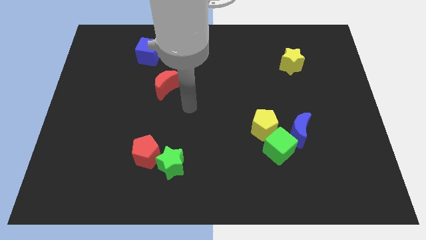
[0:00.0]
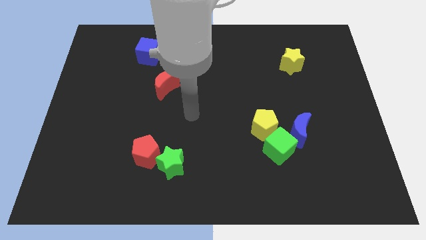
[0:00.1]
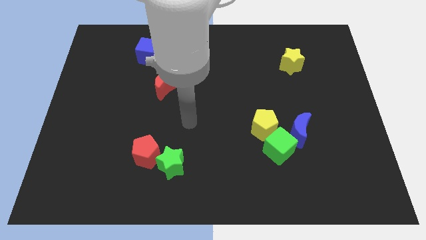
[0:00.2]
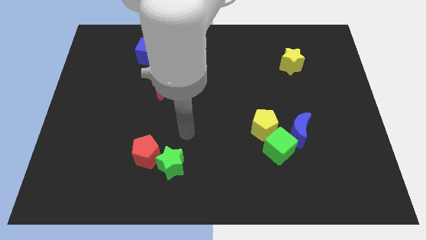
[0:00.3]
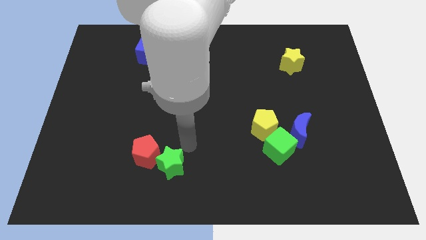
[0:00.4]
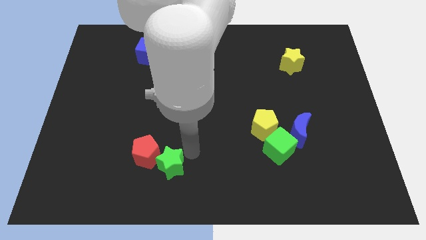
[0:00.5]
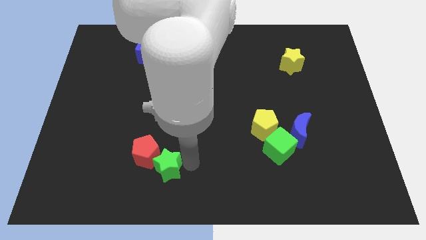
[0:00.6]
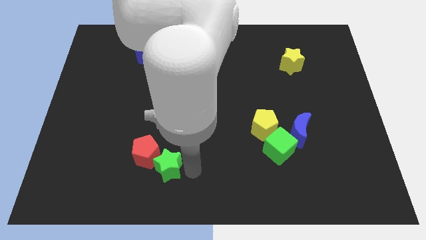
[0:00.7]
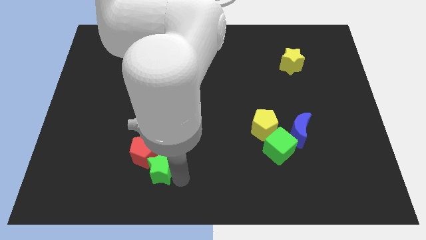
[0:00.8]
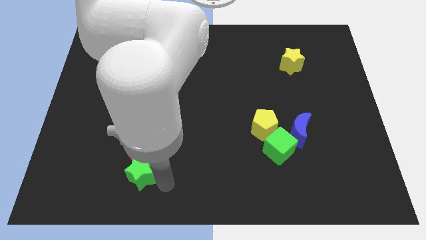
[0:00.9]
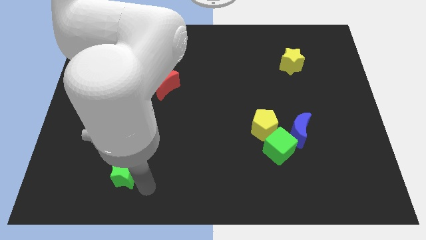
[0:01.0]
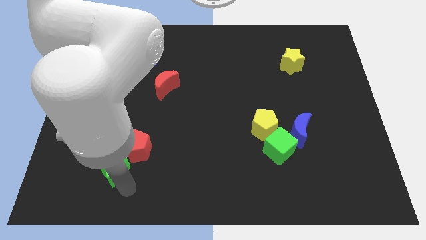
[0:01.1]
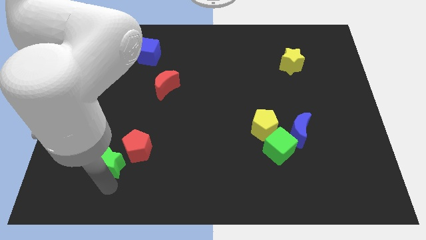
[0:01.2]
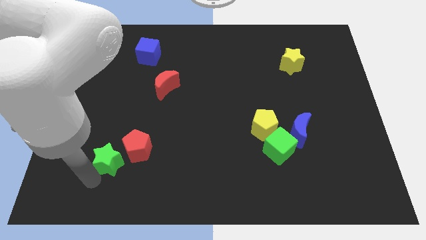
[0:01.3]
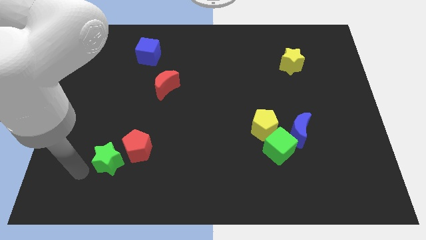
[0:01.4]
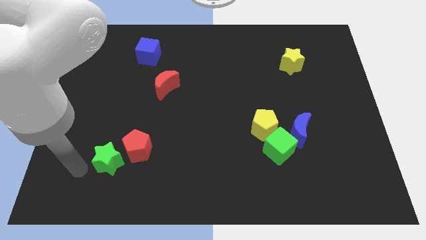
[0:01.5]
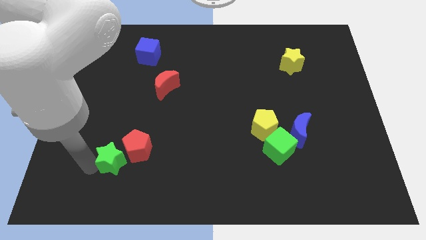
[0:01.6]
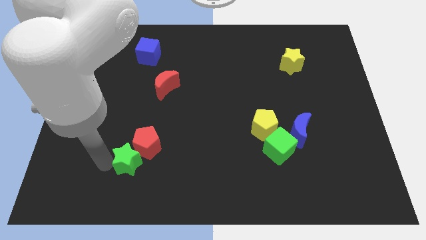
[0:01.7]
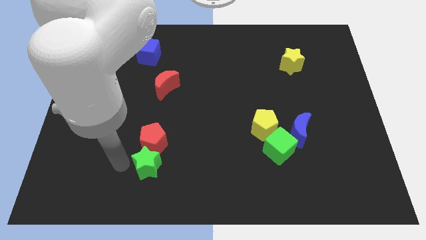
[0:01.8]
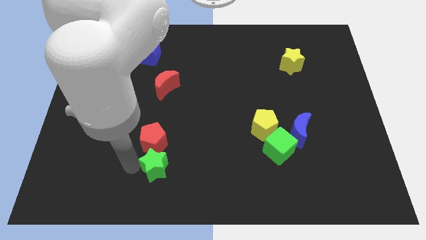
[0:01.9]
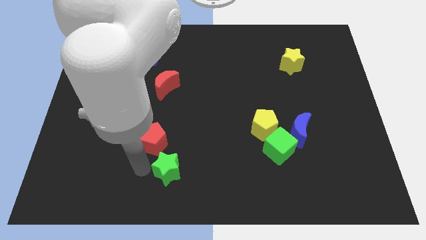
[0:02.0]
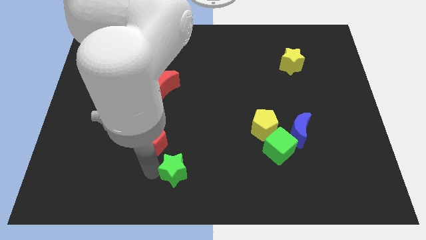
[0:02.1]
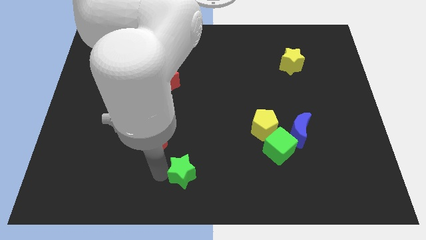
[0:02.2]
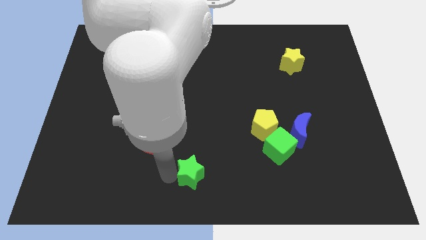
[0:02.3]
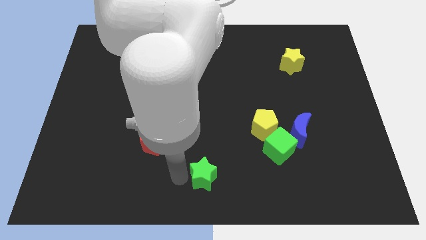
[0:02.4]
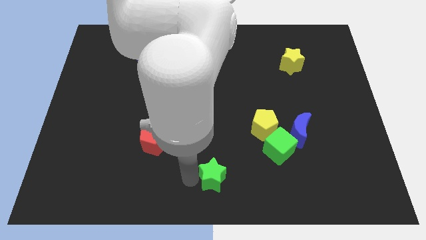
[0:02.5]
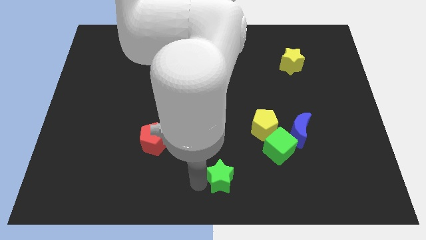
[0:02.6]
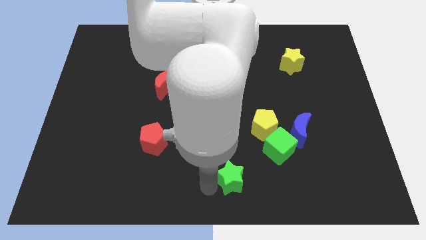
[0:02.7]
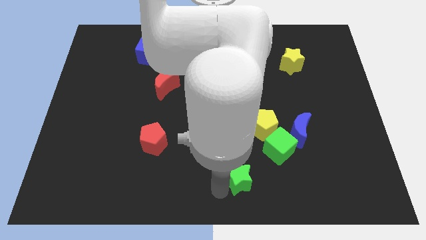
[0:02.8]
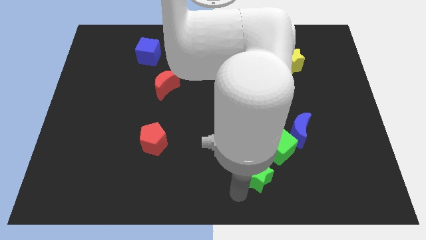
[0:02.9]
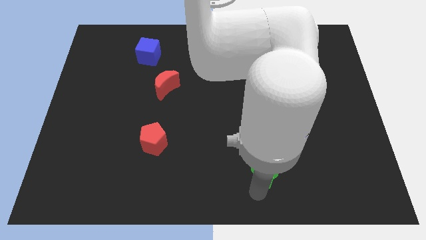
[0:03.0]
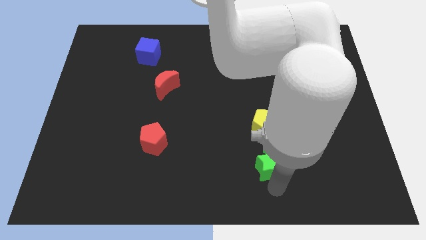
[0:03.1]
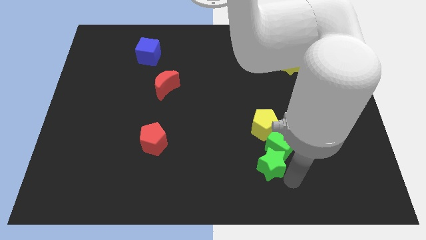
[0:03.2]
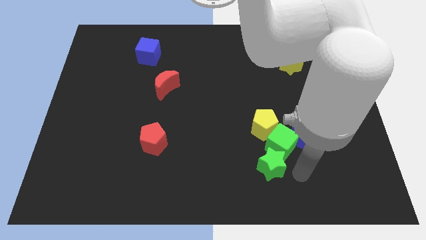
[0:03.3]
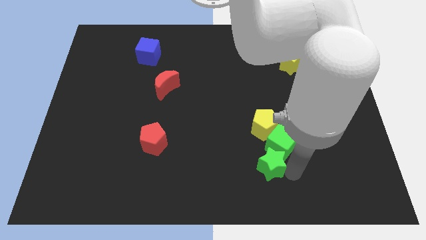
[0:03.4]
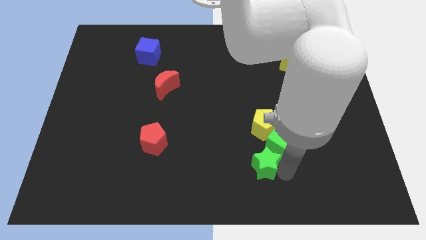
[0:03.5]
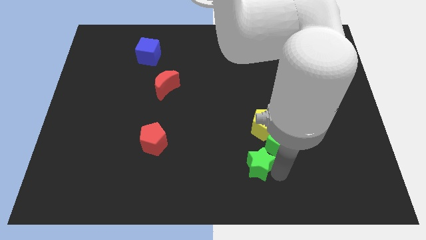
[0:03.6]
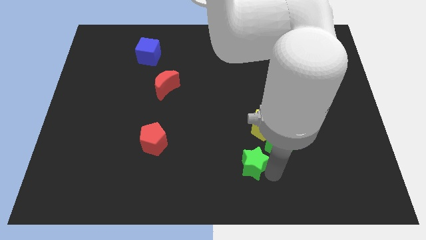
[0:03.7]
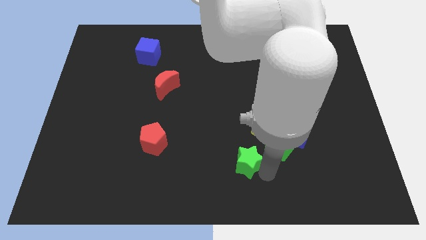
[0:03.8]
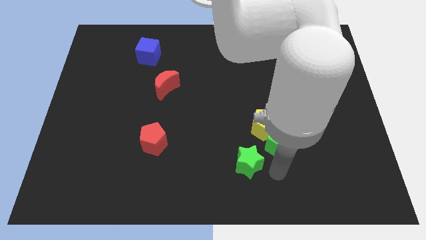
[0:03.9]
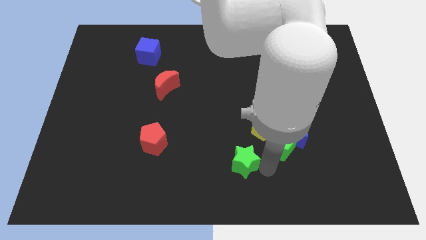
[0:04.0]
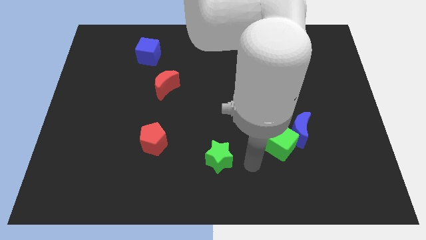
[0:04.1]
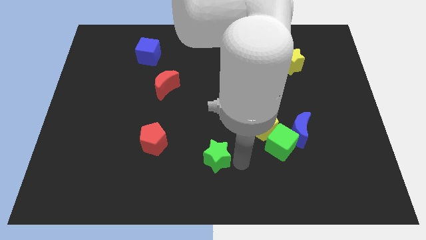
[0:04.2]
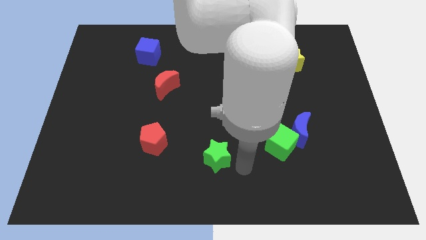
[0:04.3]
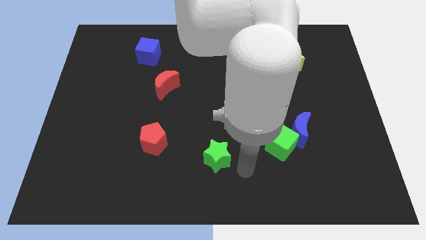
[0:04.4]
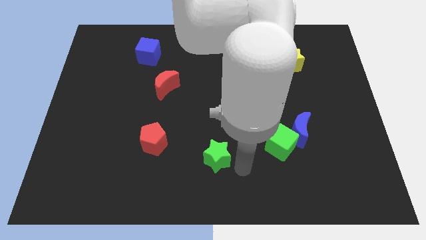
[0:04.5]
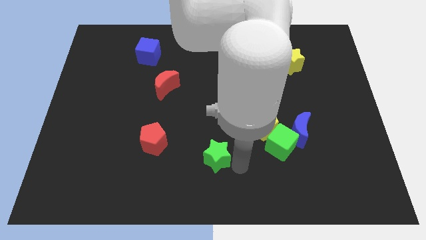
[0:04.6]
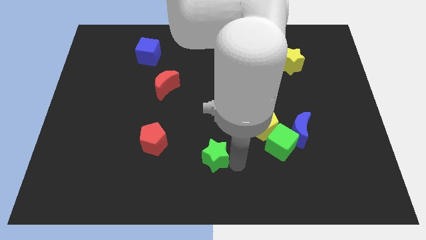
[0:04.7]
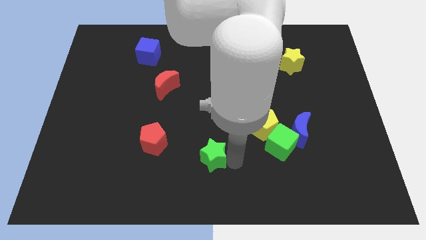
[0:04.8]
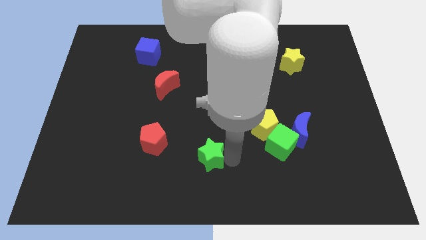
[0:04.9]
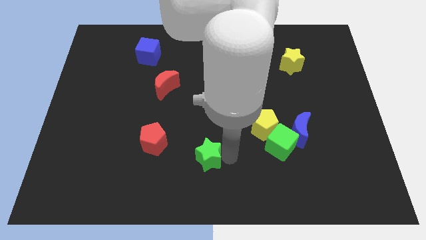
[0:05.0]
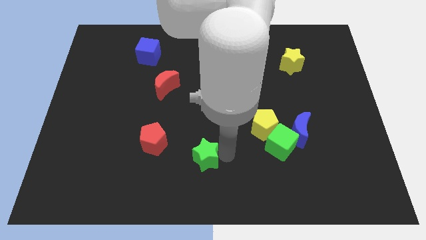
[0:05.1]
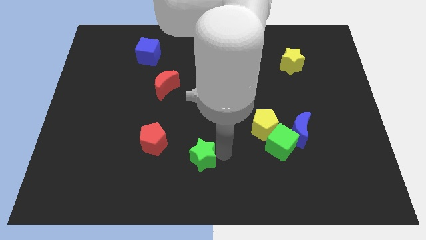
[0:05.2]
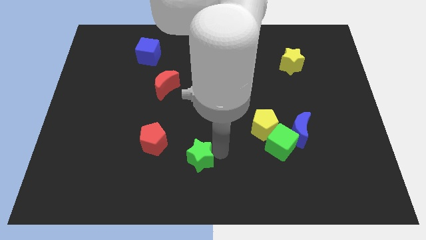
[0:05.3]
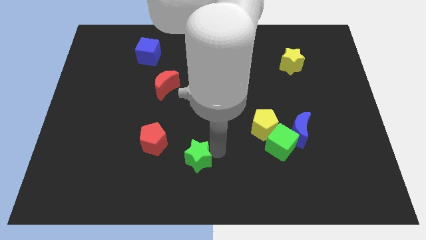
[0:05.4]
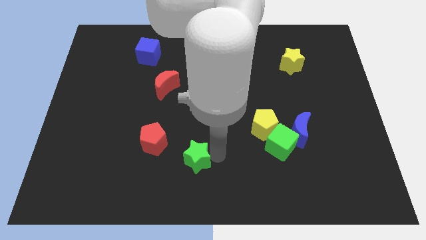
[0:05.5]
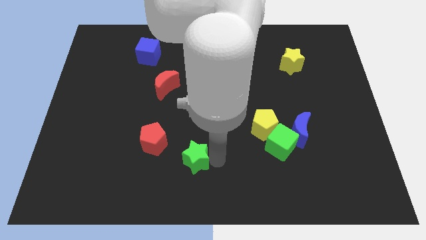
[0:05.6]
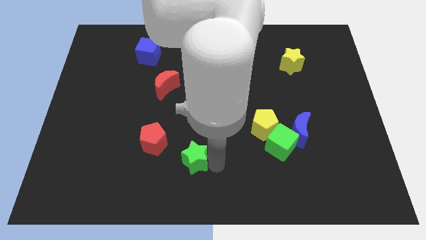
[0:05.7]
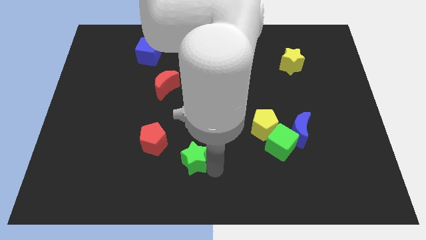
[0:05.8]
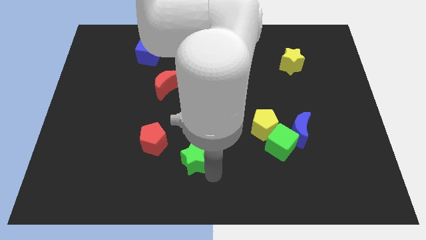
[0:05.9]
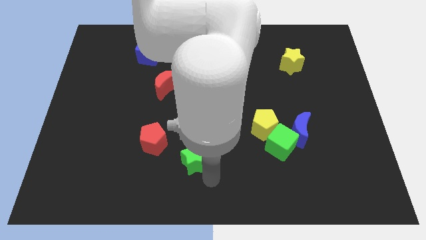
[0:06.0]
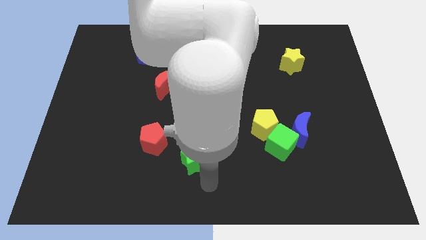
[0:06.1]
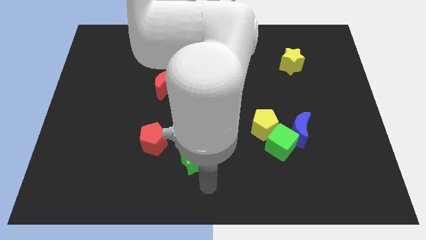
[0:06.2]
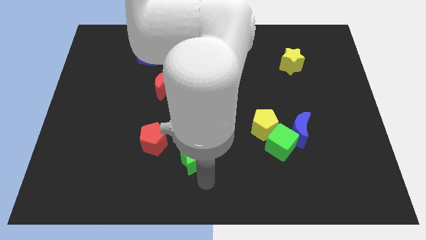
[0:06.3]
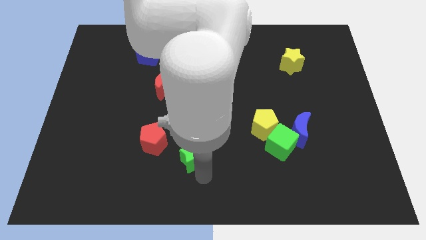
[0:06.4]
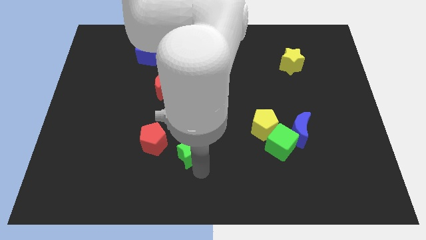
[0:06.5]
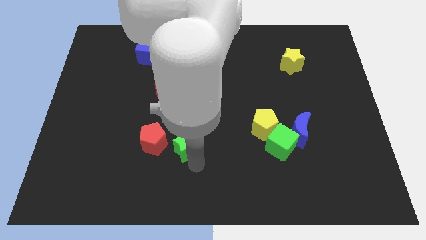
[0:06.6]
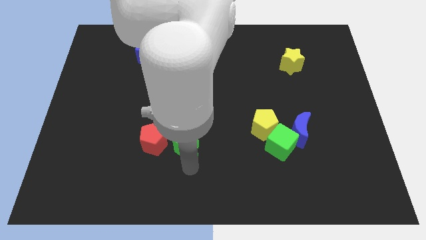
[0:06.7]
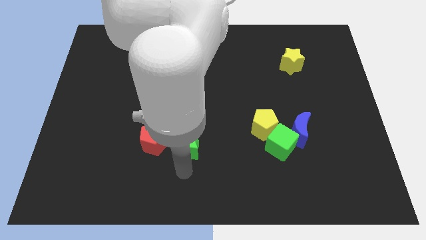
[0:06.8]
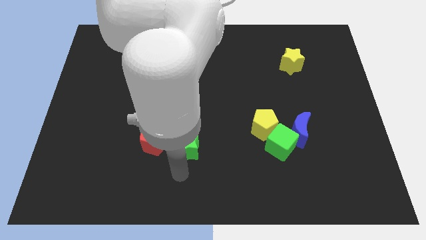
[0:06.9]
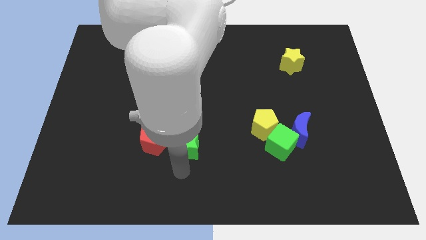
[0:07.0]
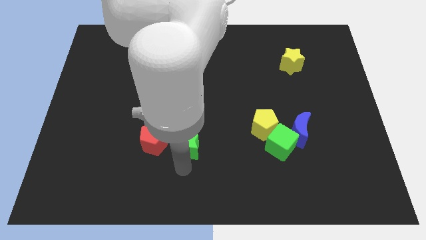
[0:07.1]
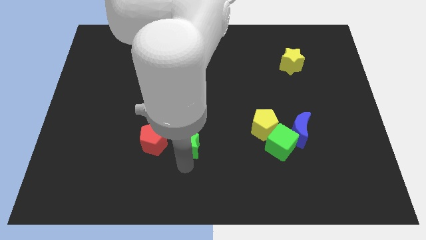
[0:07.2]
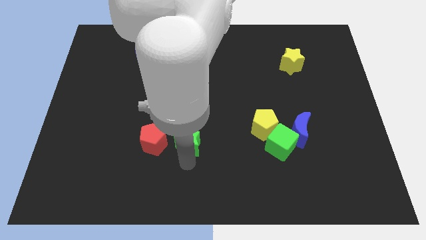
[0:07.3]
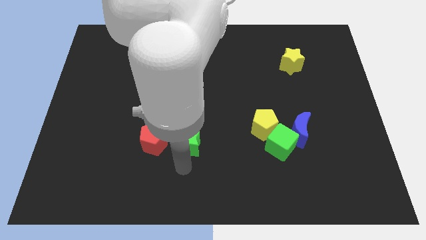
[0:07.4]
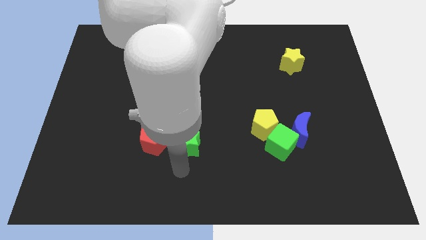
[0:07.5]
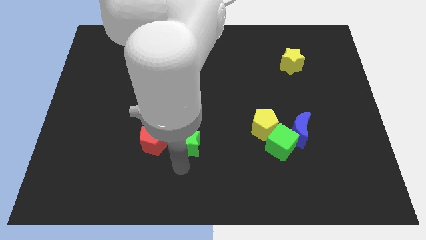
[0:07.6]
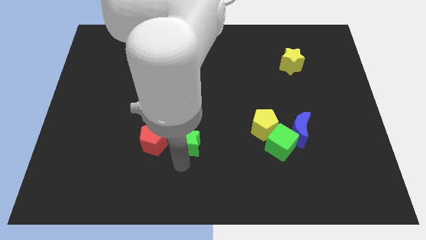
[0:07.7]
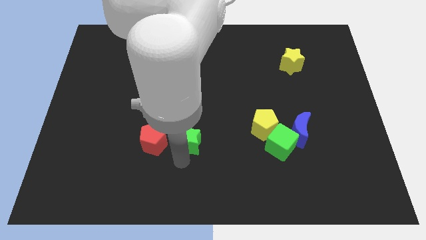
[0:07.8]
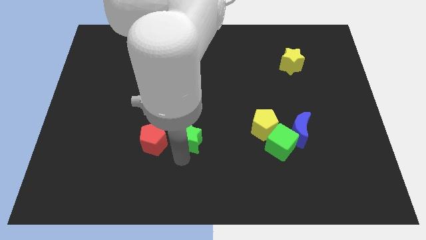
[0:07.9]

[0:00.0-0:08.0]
slide the green star to the middle of the board
